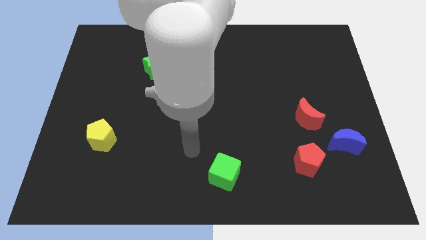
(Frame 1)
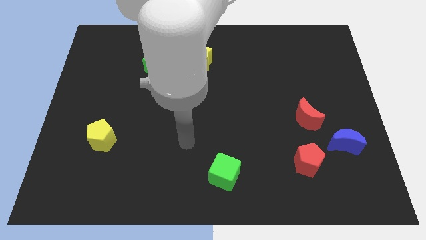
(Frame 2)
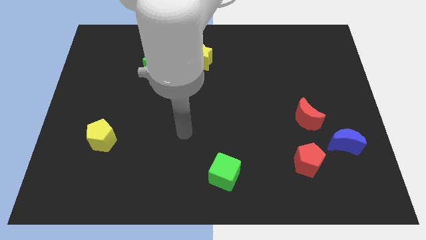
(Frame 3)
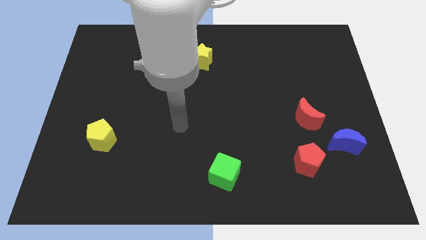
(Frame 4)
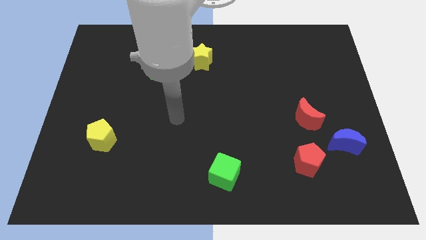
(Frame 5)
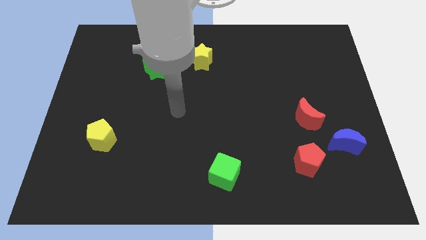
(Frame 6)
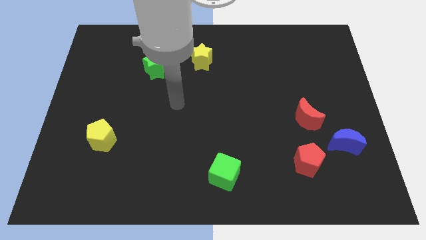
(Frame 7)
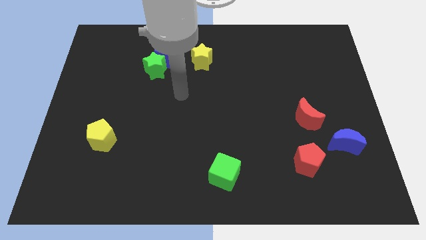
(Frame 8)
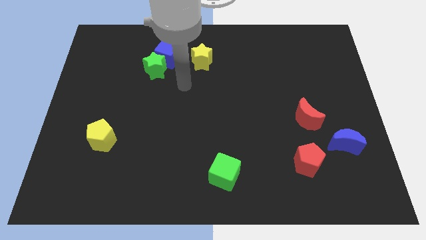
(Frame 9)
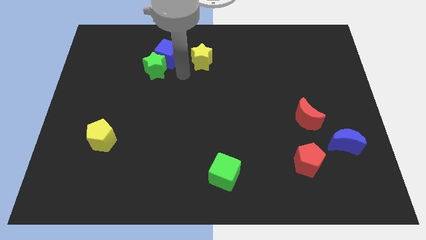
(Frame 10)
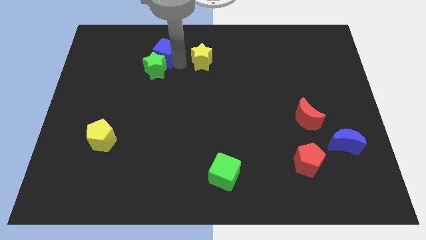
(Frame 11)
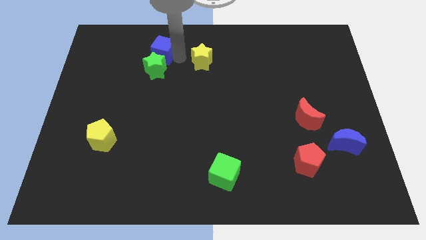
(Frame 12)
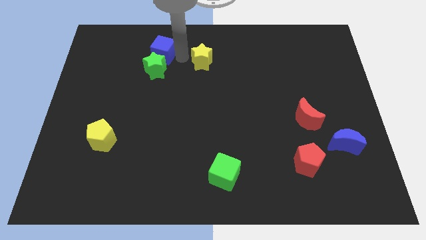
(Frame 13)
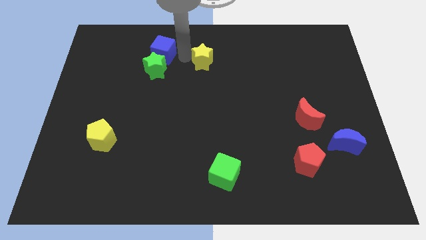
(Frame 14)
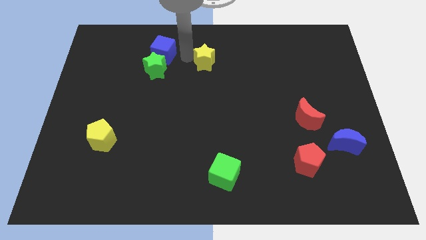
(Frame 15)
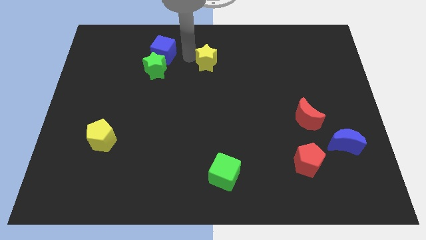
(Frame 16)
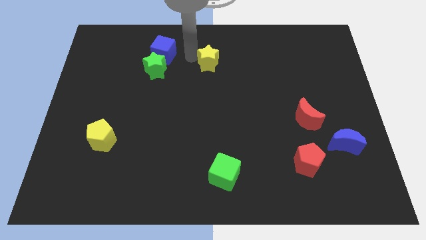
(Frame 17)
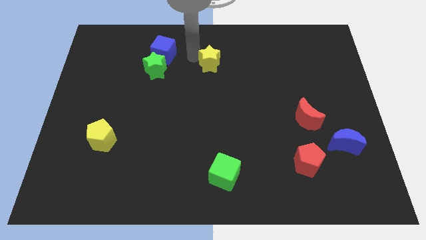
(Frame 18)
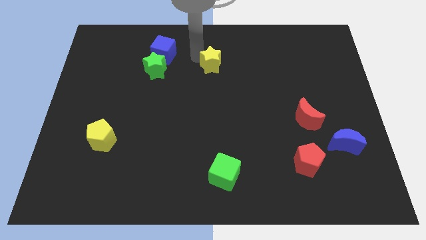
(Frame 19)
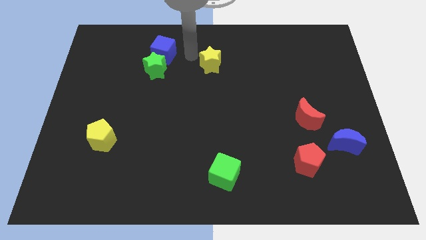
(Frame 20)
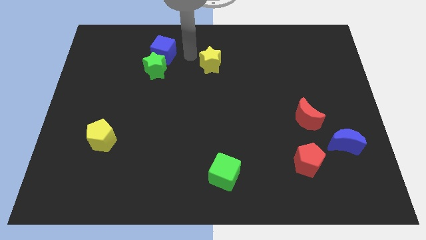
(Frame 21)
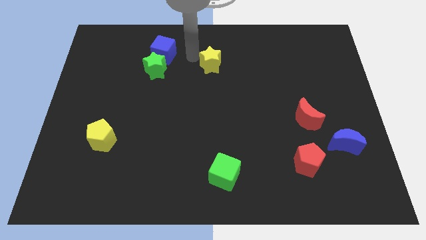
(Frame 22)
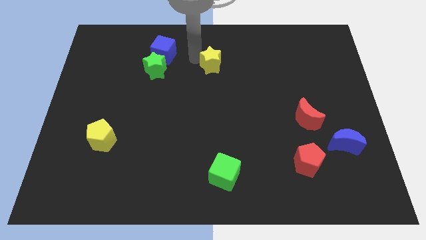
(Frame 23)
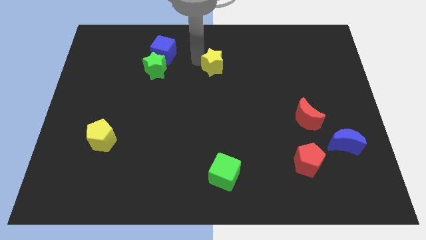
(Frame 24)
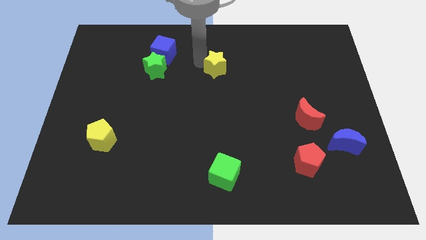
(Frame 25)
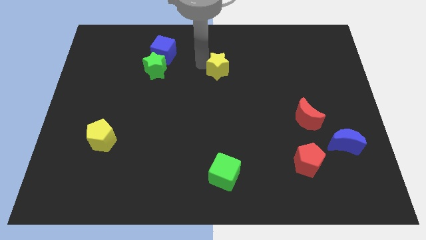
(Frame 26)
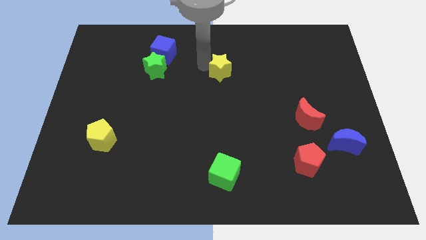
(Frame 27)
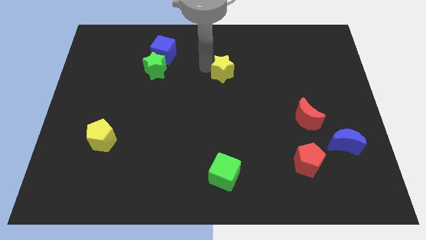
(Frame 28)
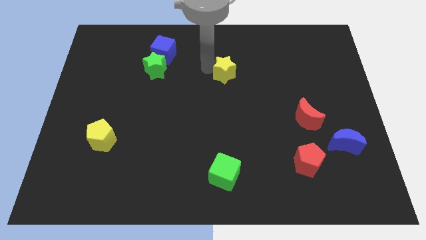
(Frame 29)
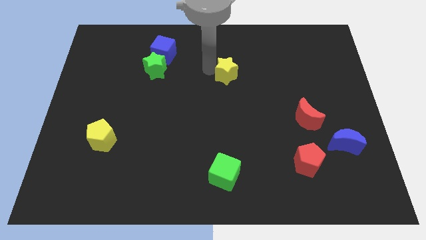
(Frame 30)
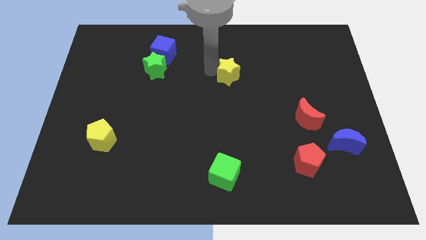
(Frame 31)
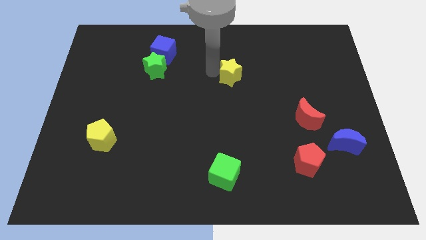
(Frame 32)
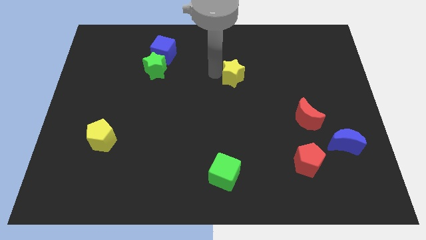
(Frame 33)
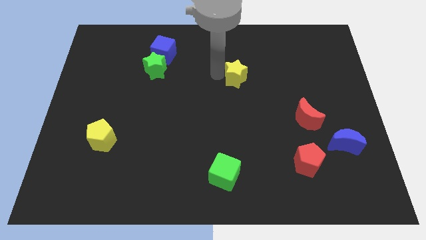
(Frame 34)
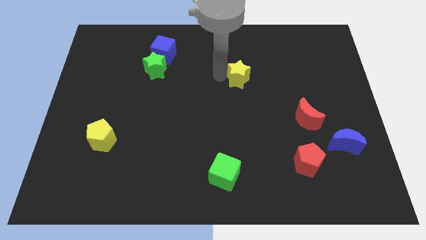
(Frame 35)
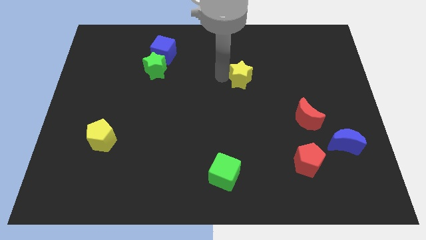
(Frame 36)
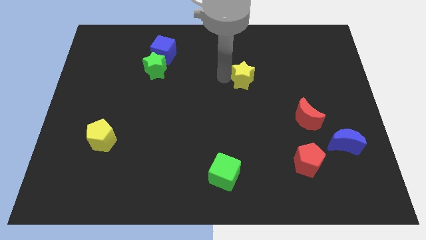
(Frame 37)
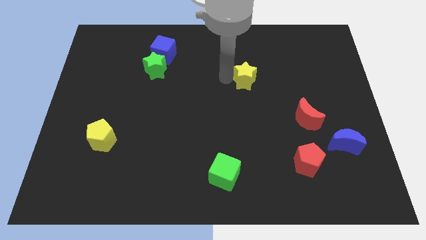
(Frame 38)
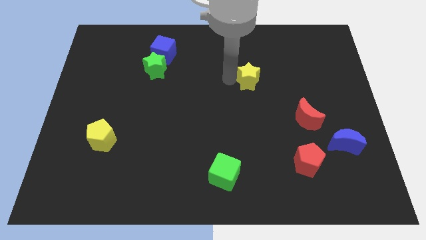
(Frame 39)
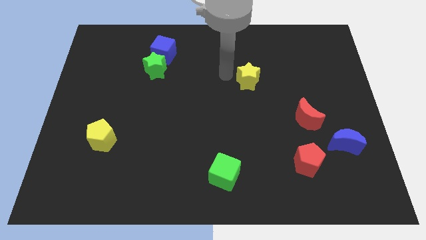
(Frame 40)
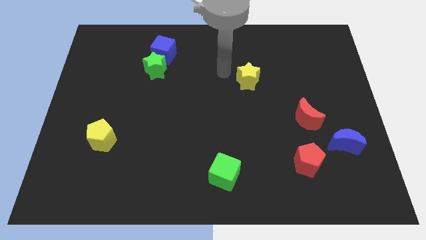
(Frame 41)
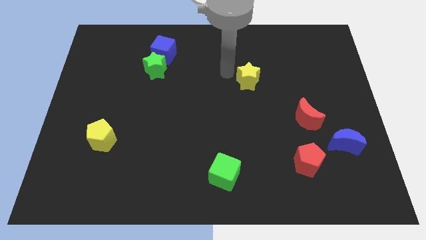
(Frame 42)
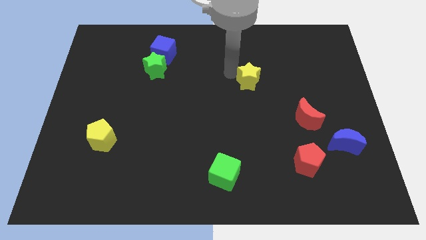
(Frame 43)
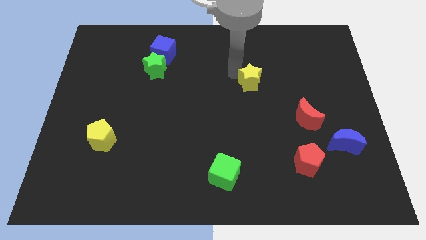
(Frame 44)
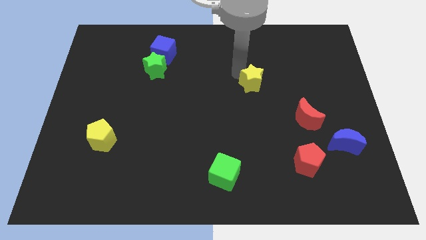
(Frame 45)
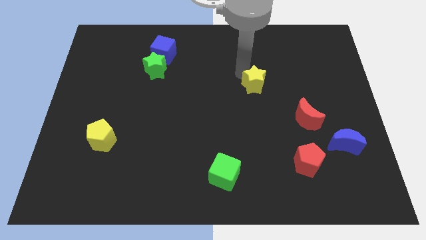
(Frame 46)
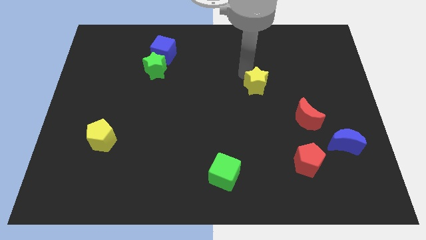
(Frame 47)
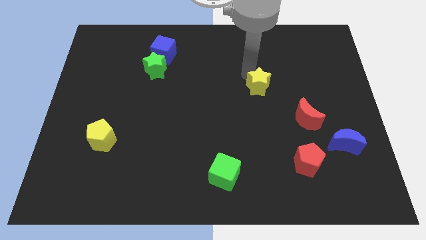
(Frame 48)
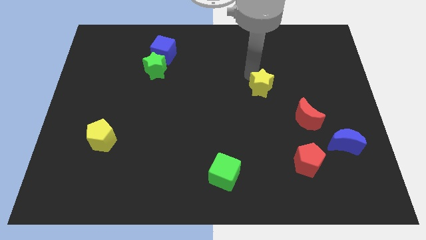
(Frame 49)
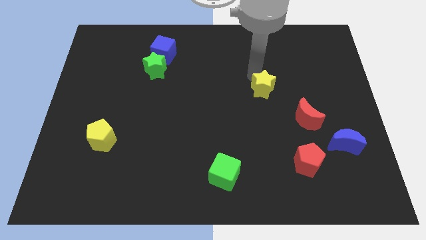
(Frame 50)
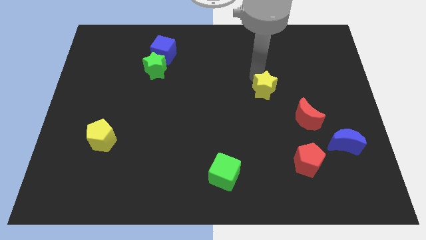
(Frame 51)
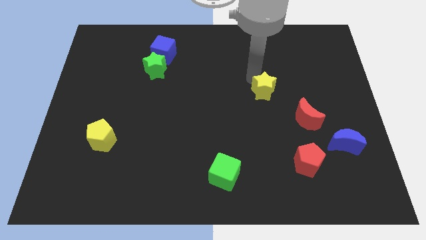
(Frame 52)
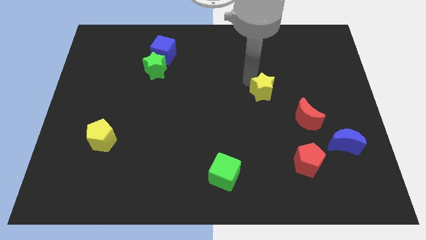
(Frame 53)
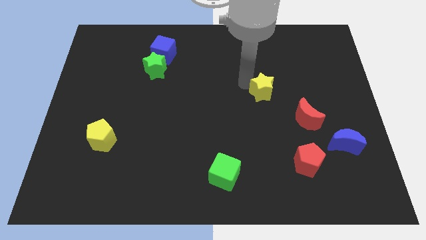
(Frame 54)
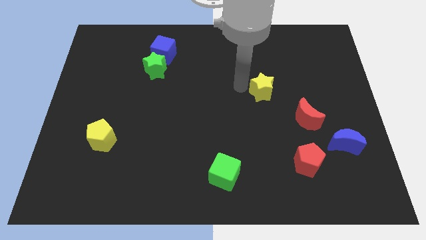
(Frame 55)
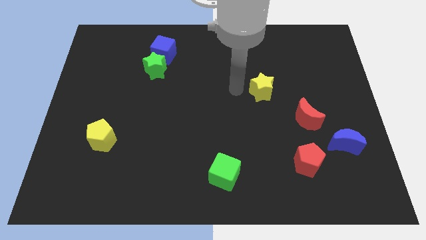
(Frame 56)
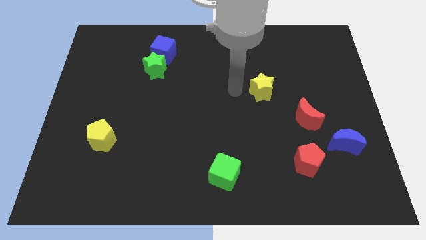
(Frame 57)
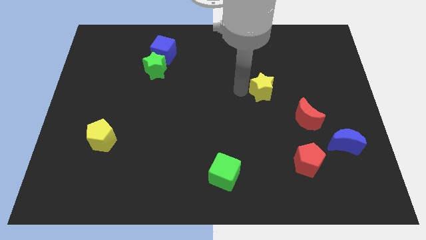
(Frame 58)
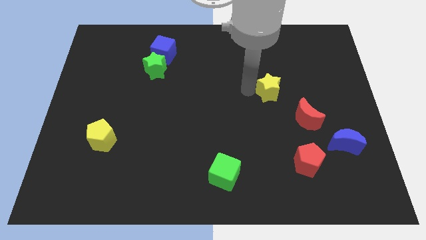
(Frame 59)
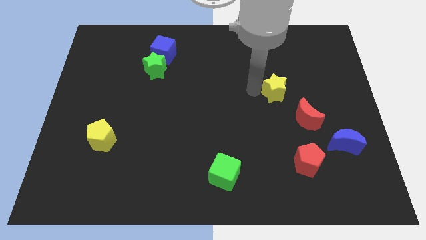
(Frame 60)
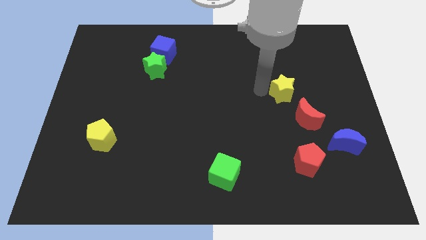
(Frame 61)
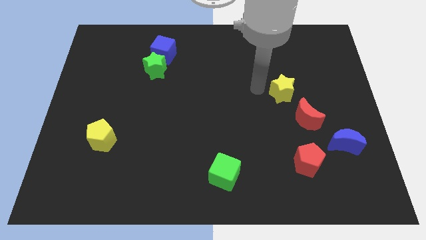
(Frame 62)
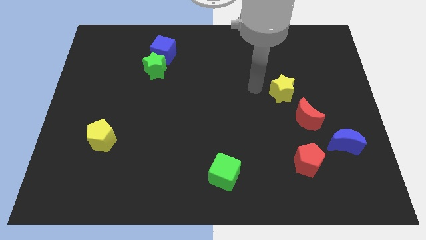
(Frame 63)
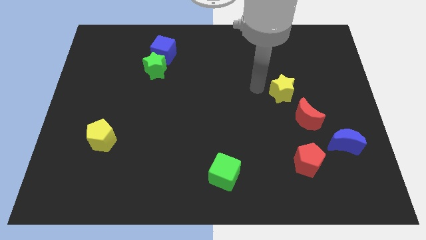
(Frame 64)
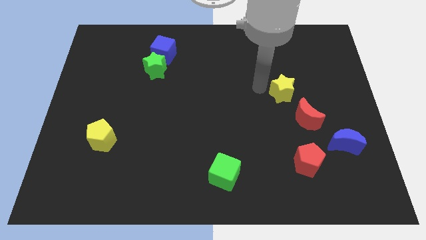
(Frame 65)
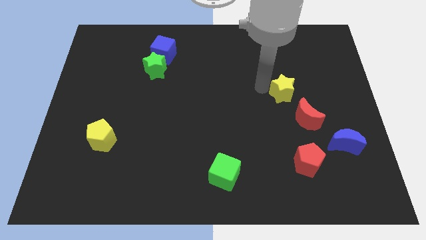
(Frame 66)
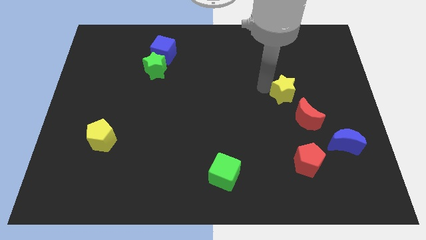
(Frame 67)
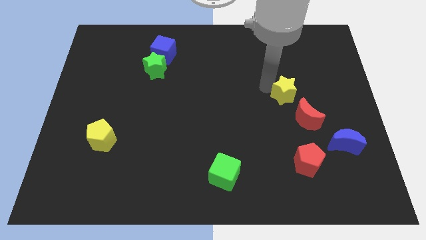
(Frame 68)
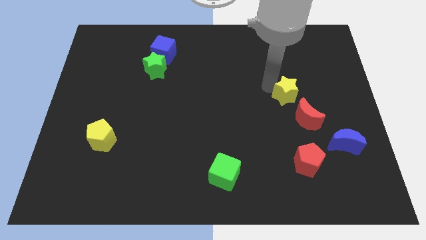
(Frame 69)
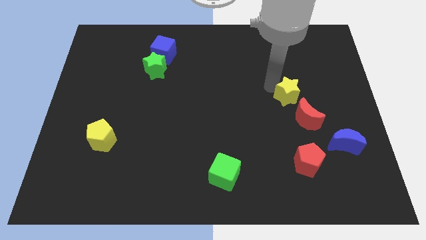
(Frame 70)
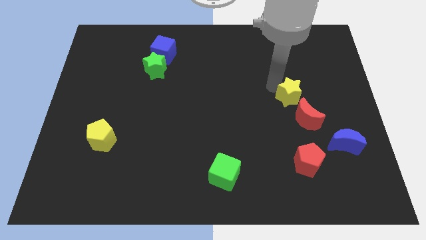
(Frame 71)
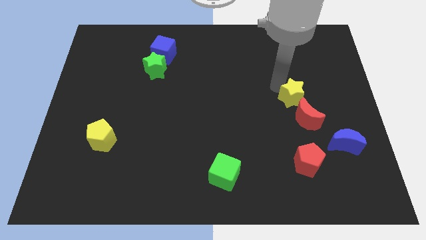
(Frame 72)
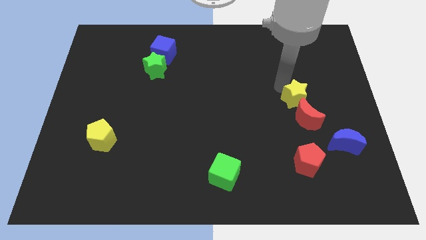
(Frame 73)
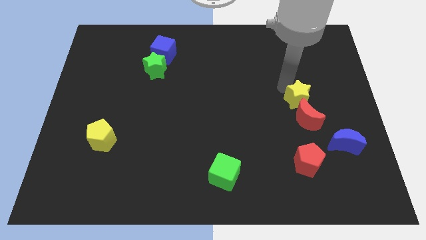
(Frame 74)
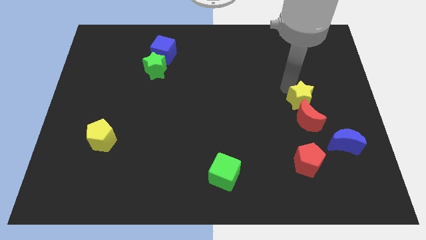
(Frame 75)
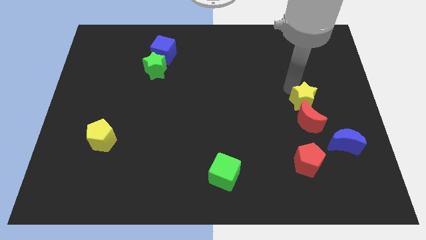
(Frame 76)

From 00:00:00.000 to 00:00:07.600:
put the yellow star diagonally up and to the right of the red moon
